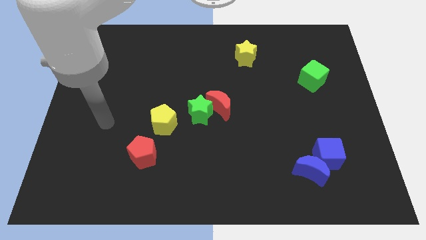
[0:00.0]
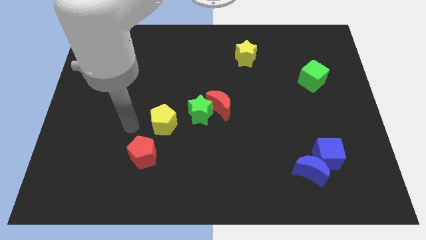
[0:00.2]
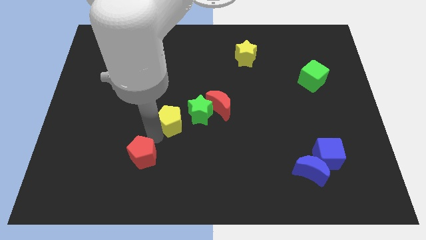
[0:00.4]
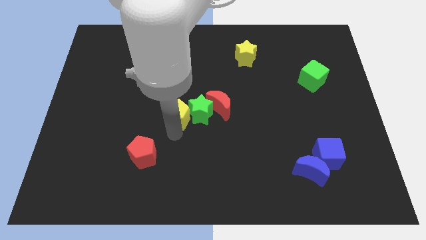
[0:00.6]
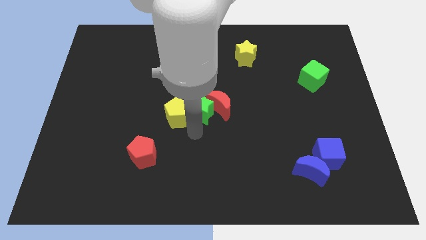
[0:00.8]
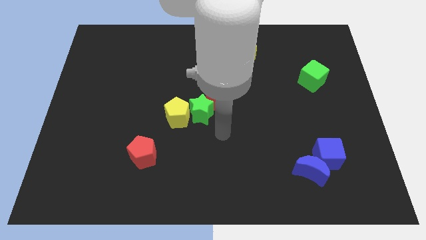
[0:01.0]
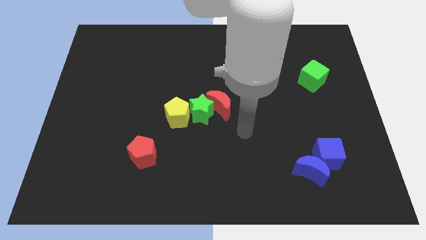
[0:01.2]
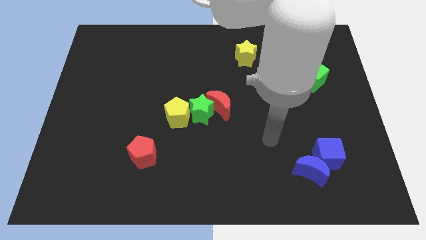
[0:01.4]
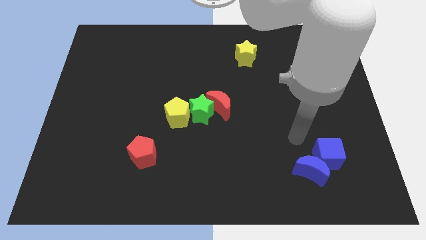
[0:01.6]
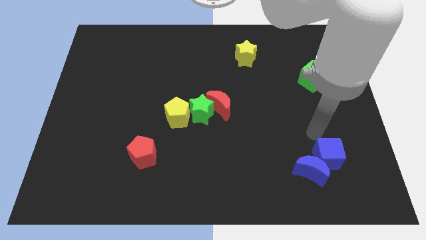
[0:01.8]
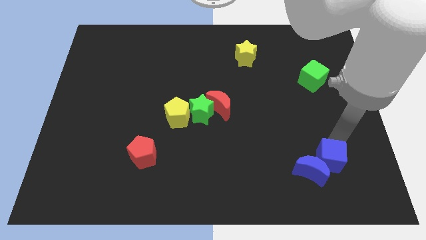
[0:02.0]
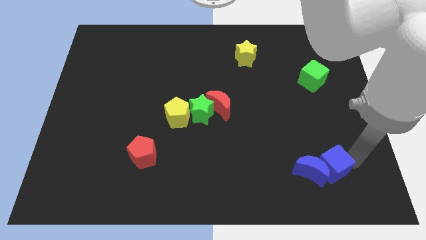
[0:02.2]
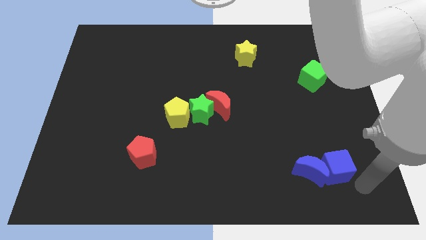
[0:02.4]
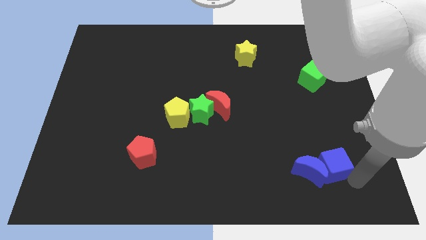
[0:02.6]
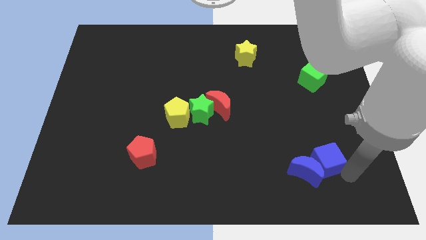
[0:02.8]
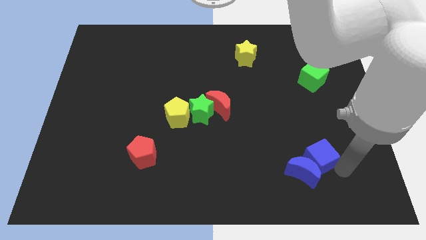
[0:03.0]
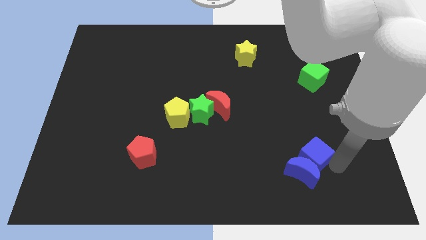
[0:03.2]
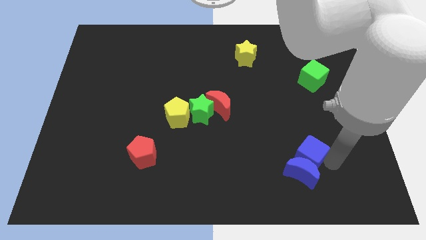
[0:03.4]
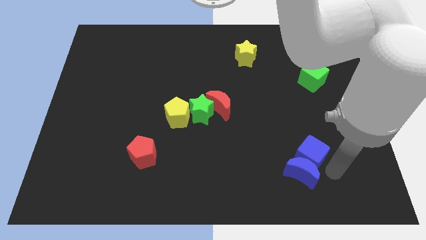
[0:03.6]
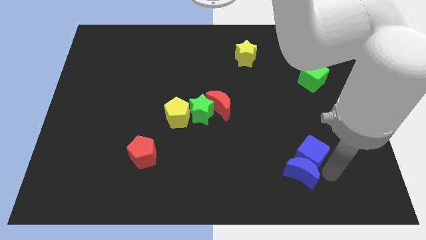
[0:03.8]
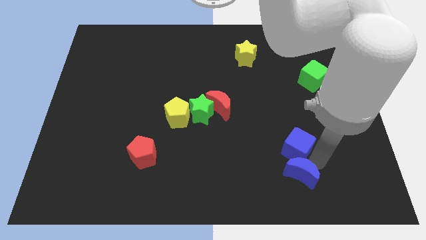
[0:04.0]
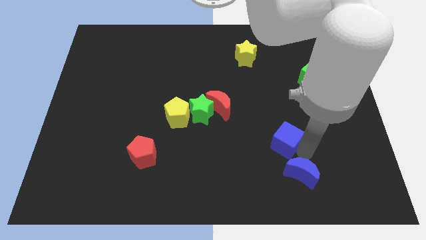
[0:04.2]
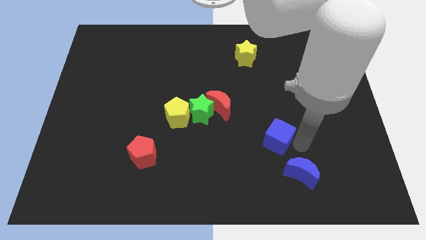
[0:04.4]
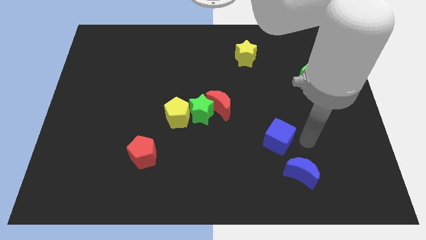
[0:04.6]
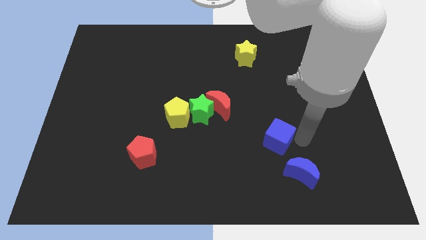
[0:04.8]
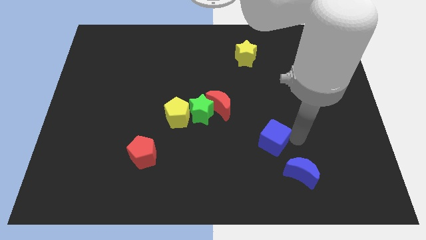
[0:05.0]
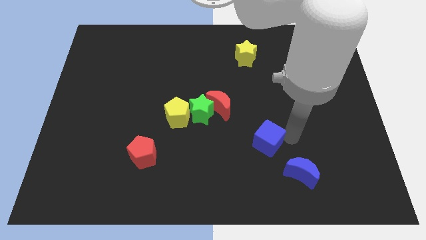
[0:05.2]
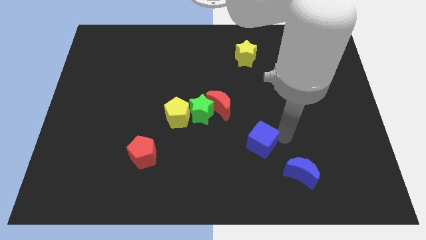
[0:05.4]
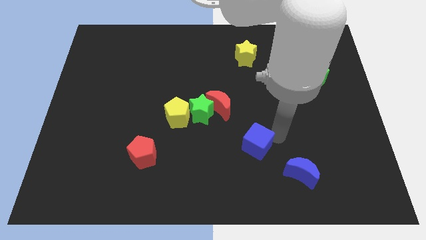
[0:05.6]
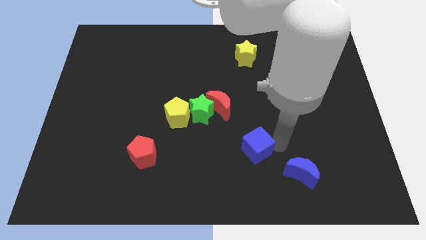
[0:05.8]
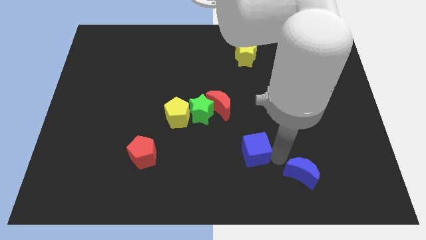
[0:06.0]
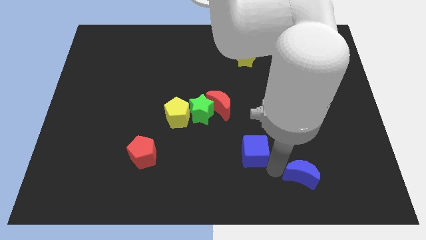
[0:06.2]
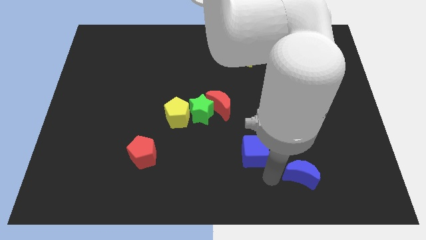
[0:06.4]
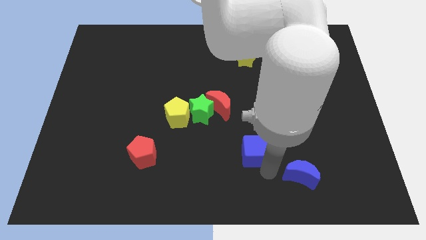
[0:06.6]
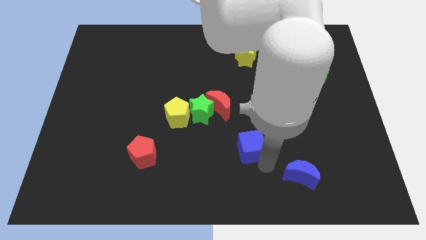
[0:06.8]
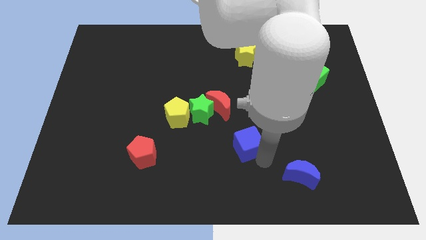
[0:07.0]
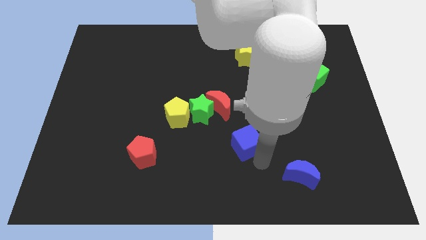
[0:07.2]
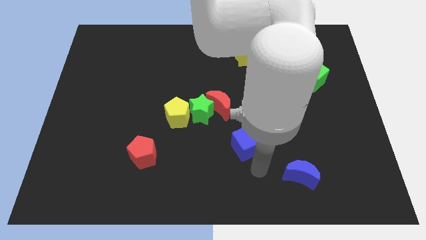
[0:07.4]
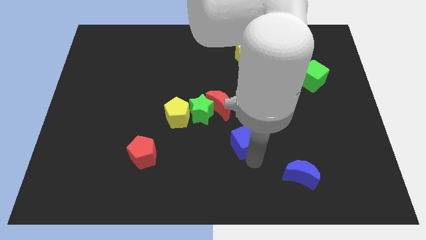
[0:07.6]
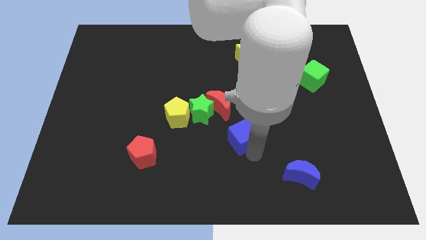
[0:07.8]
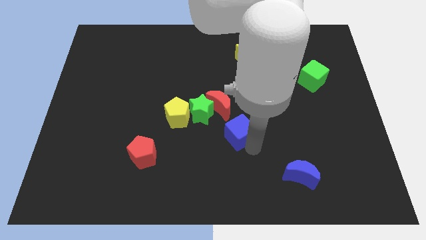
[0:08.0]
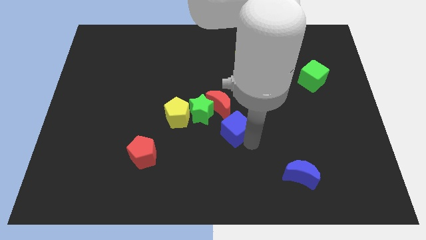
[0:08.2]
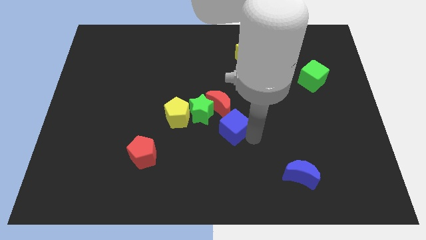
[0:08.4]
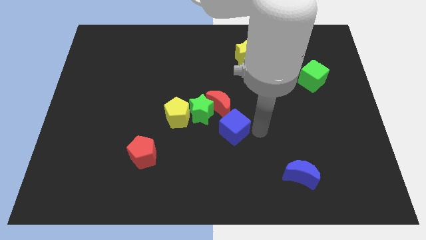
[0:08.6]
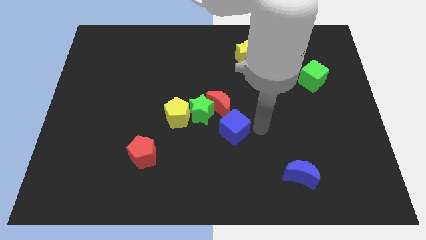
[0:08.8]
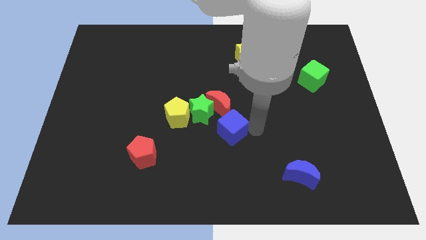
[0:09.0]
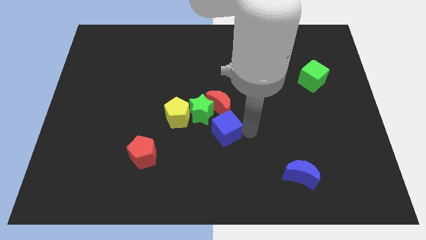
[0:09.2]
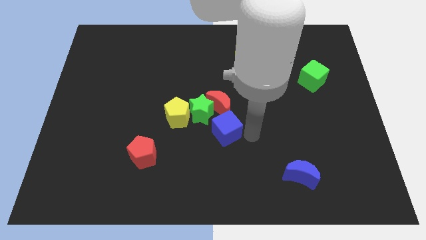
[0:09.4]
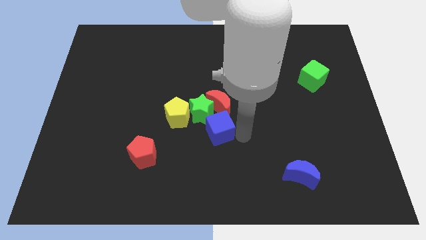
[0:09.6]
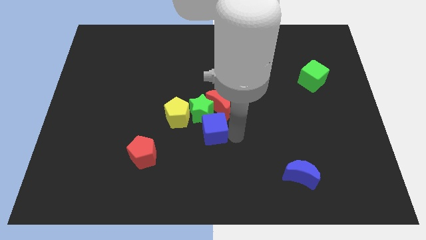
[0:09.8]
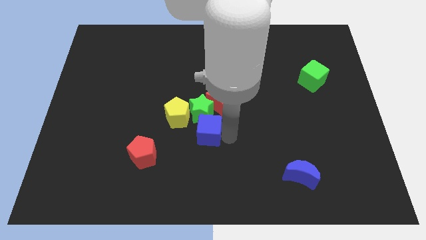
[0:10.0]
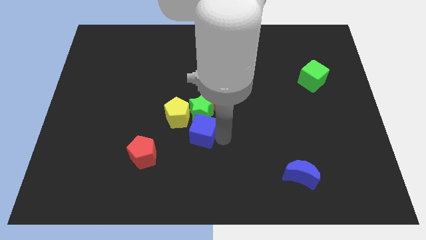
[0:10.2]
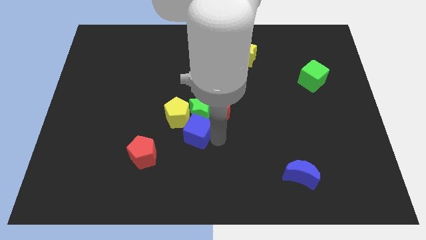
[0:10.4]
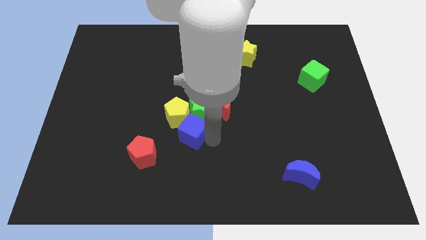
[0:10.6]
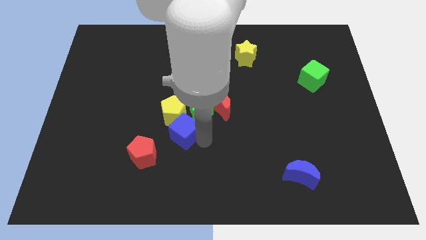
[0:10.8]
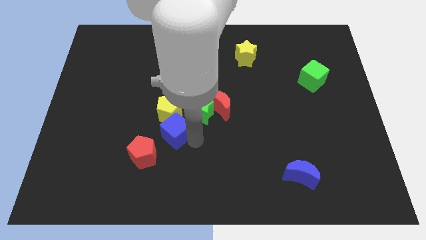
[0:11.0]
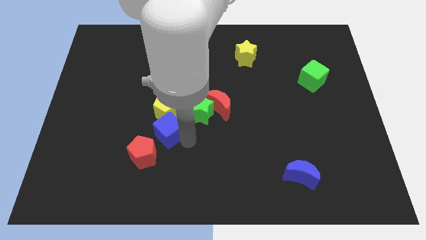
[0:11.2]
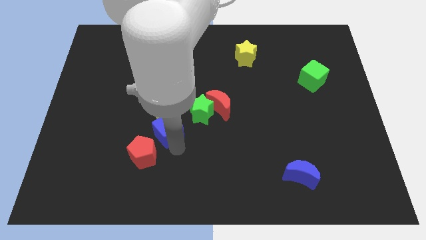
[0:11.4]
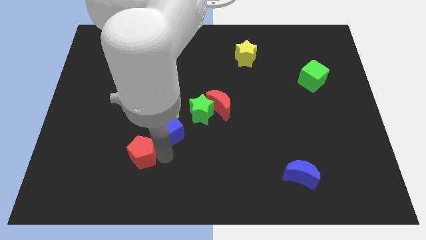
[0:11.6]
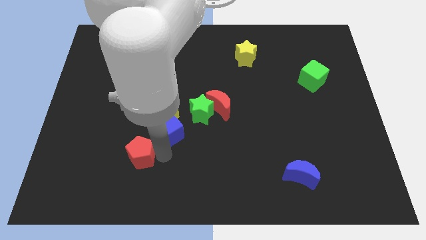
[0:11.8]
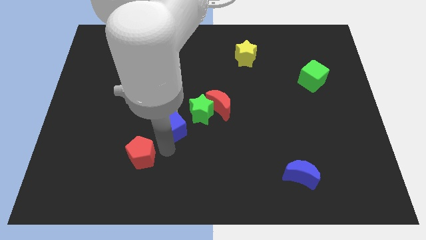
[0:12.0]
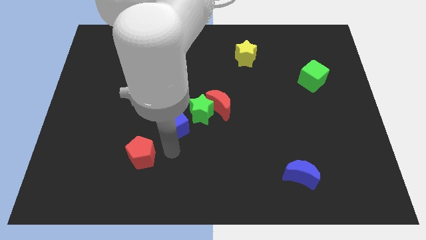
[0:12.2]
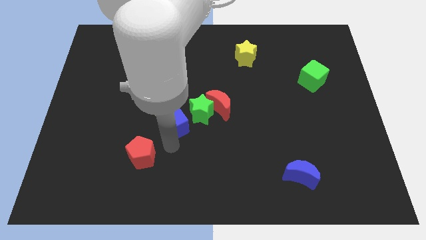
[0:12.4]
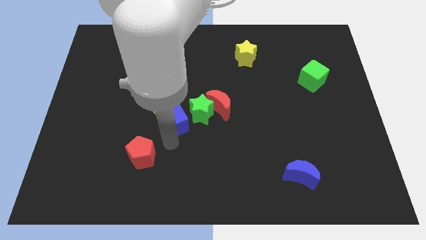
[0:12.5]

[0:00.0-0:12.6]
push the blue cube left of the red moon

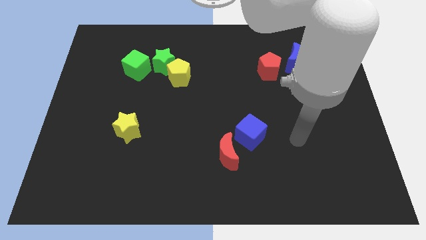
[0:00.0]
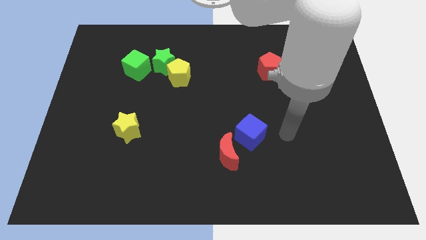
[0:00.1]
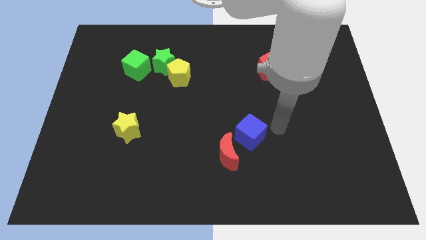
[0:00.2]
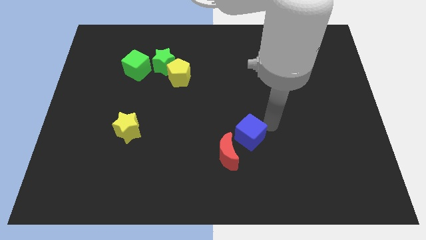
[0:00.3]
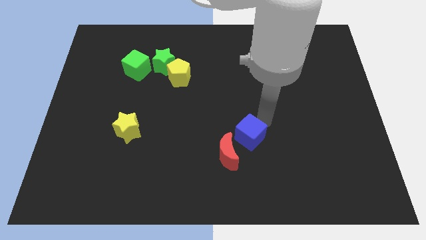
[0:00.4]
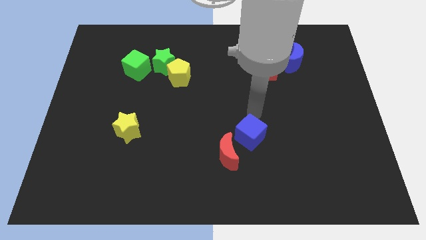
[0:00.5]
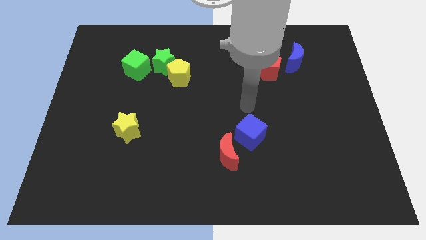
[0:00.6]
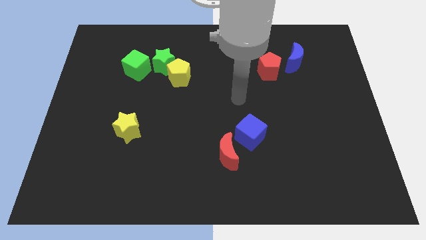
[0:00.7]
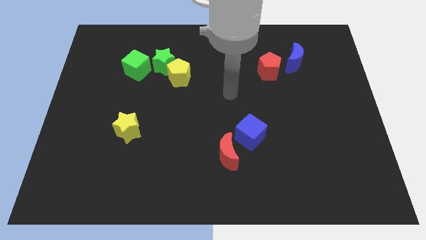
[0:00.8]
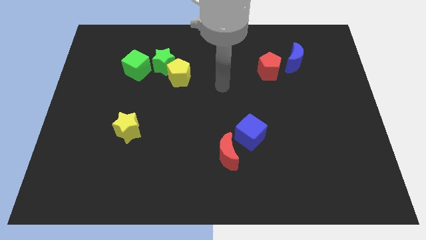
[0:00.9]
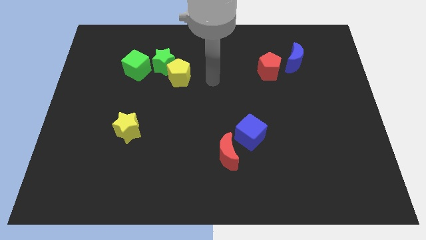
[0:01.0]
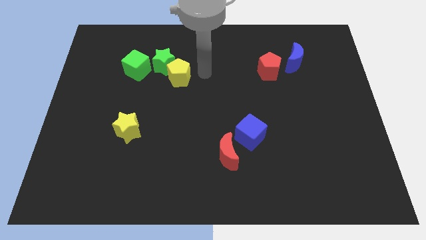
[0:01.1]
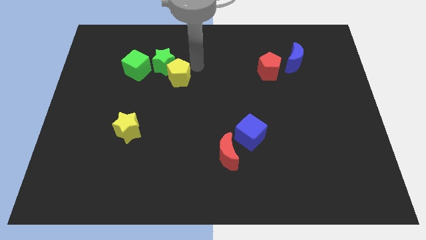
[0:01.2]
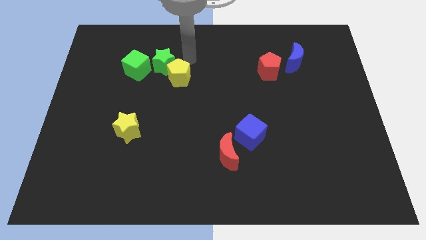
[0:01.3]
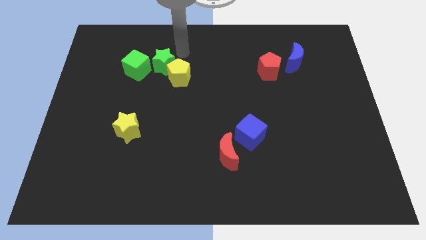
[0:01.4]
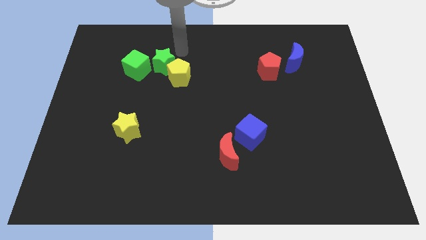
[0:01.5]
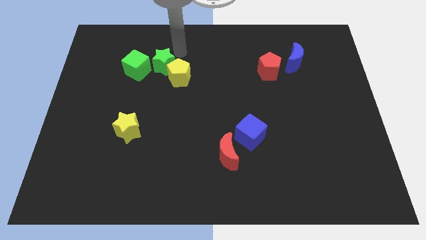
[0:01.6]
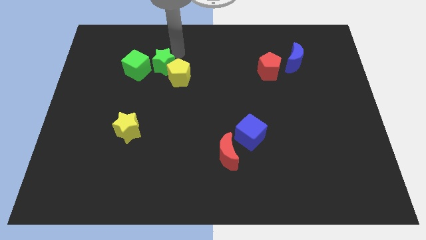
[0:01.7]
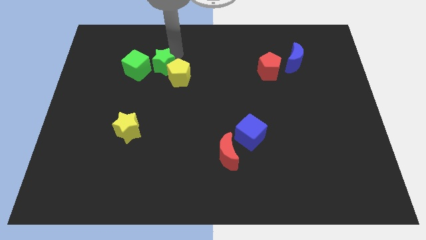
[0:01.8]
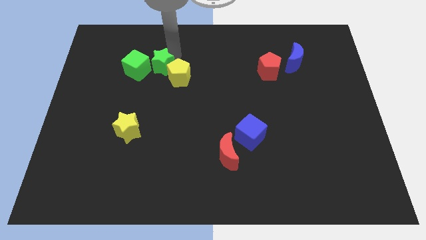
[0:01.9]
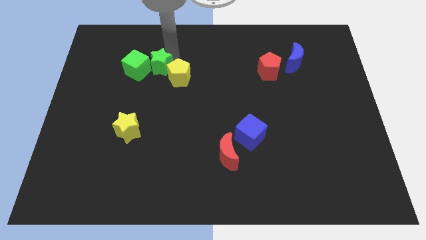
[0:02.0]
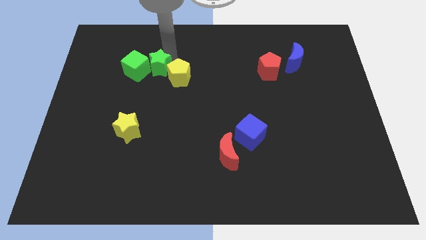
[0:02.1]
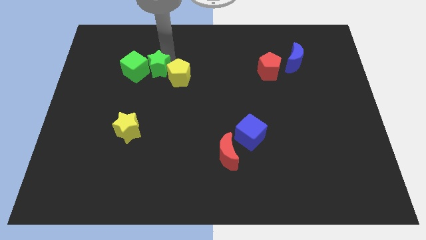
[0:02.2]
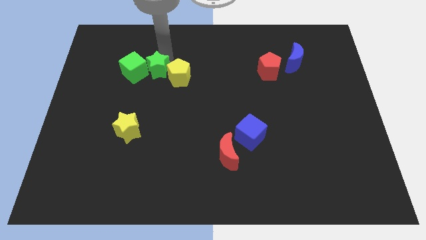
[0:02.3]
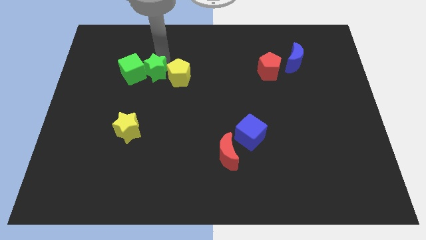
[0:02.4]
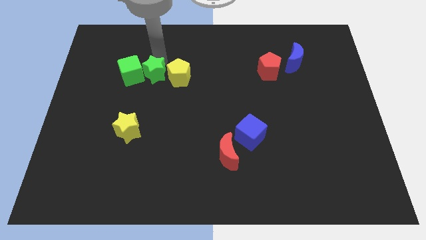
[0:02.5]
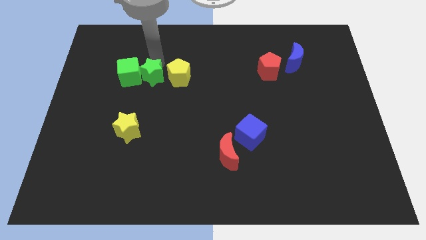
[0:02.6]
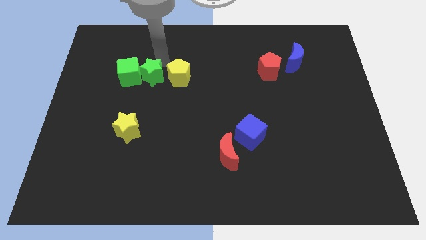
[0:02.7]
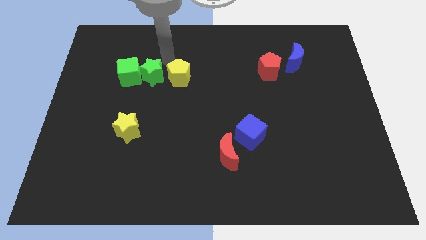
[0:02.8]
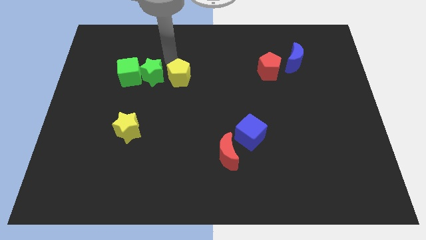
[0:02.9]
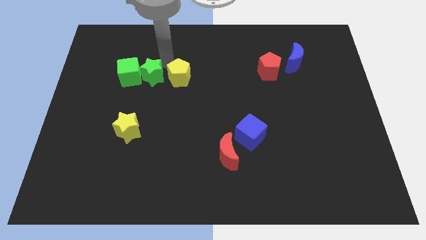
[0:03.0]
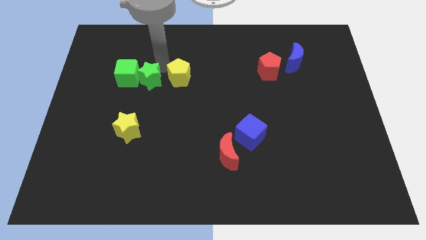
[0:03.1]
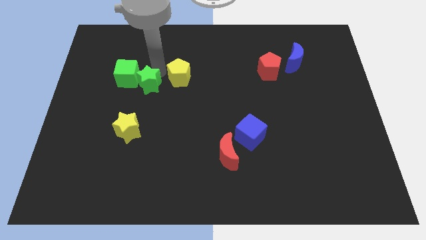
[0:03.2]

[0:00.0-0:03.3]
slide the green star to the top side of the yellow star
